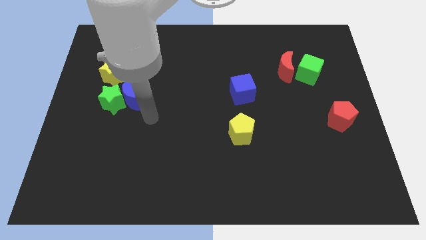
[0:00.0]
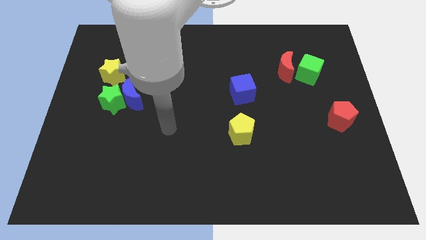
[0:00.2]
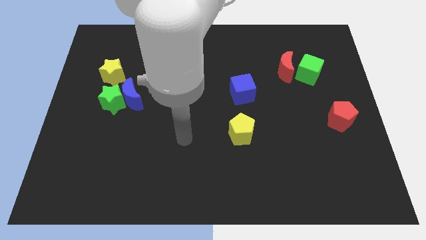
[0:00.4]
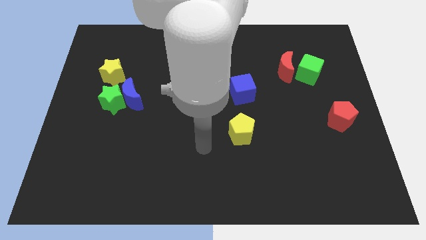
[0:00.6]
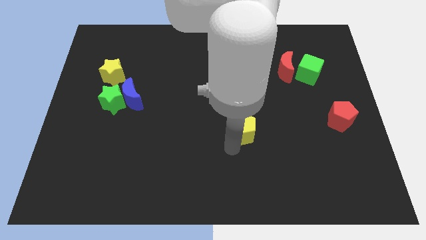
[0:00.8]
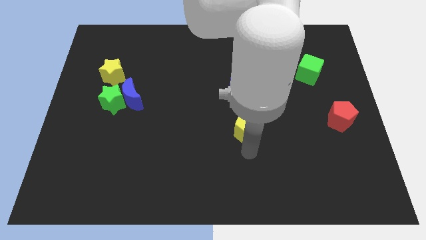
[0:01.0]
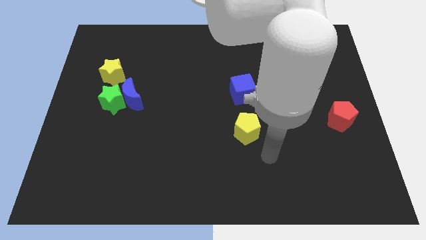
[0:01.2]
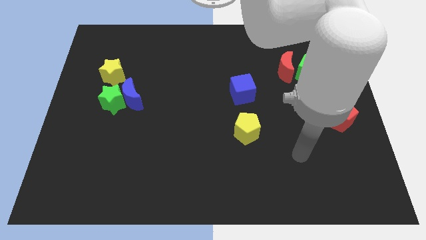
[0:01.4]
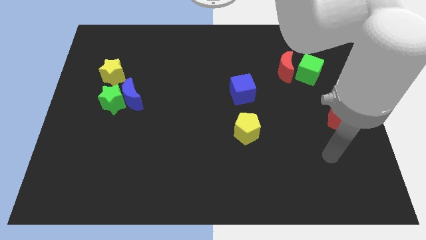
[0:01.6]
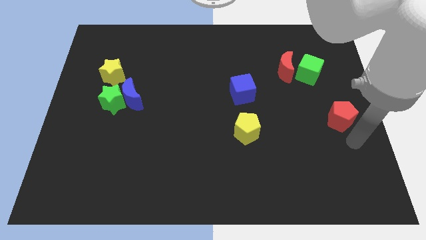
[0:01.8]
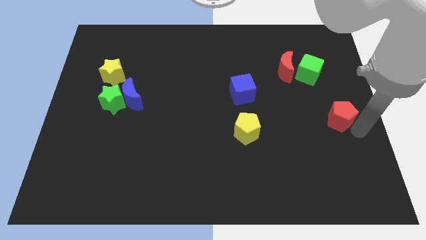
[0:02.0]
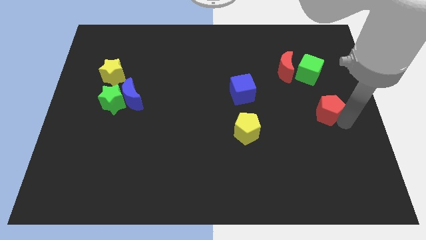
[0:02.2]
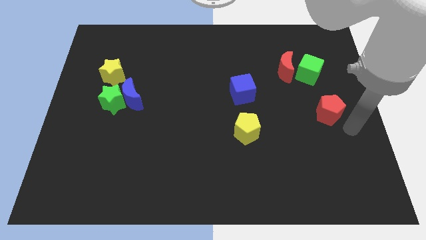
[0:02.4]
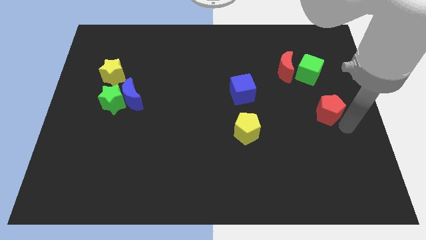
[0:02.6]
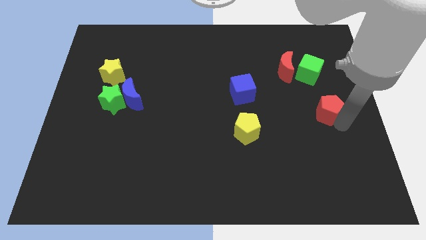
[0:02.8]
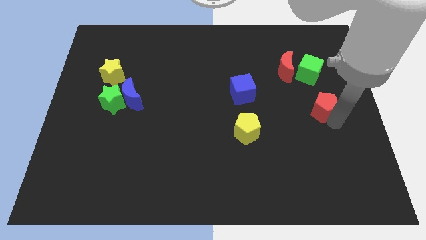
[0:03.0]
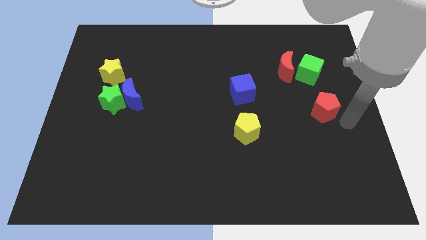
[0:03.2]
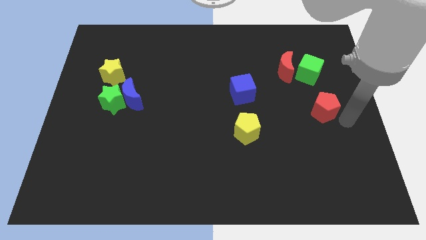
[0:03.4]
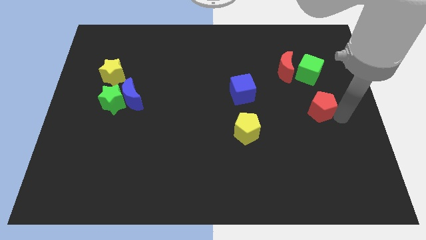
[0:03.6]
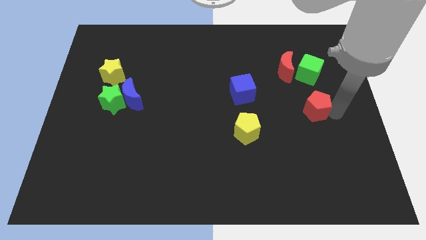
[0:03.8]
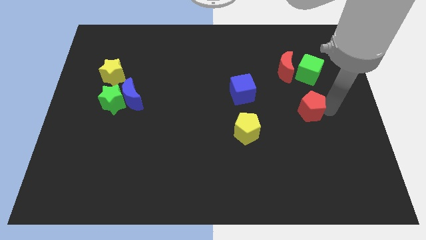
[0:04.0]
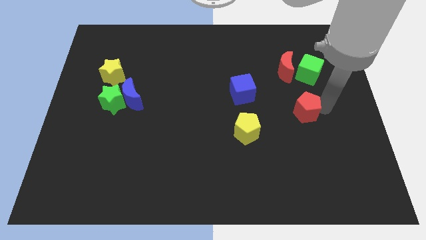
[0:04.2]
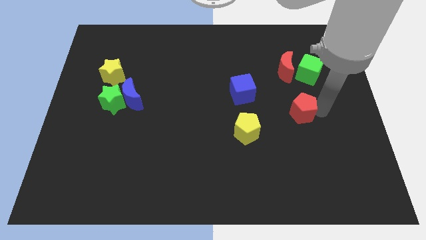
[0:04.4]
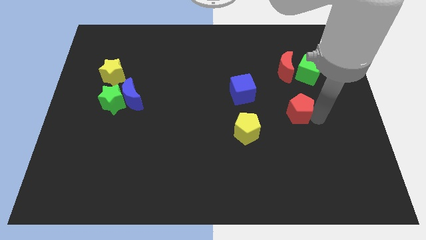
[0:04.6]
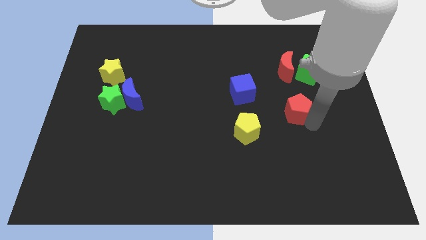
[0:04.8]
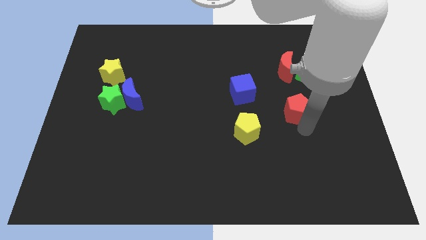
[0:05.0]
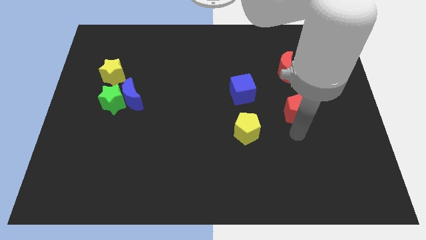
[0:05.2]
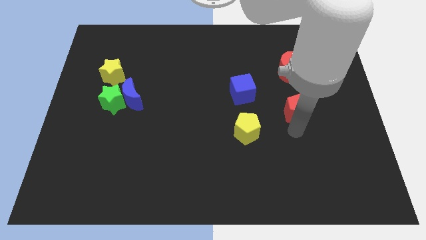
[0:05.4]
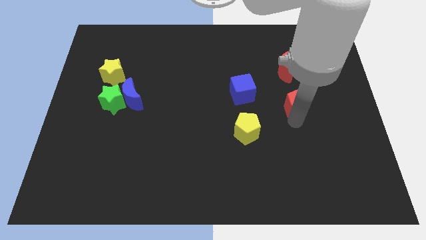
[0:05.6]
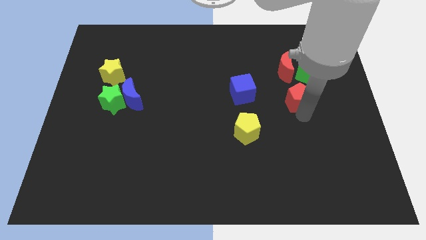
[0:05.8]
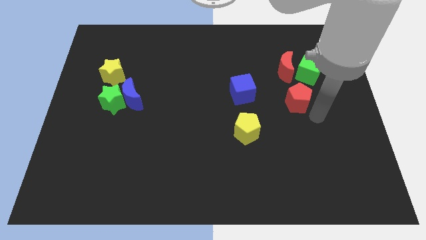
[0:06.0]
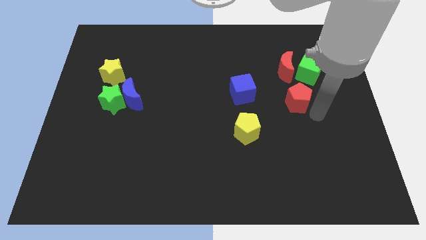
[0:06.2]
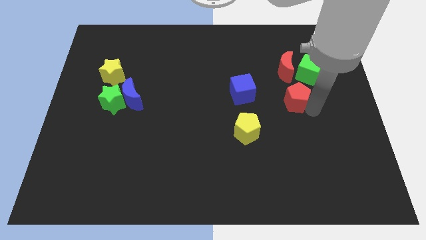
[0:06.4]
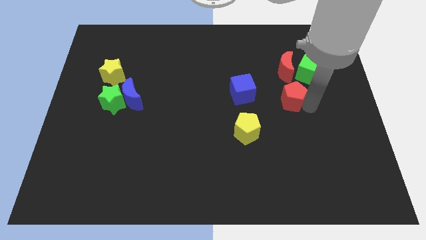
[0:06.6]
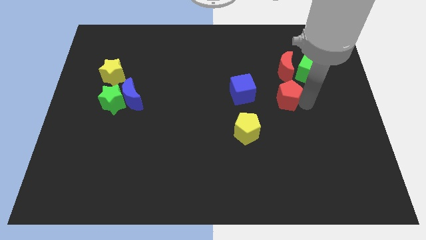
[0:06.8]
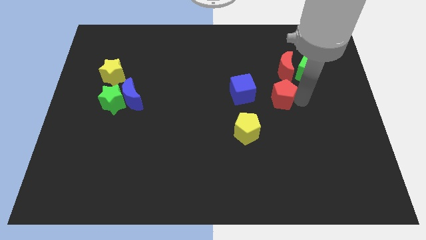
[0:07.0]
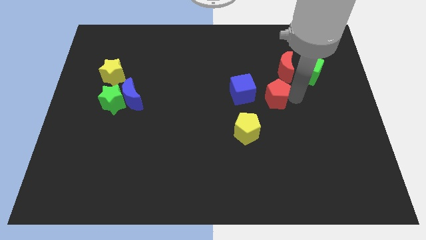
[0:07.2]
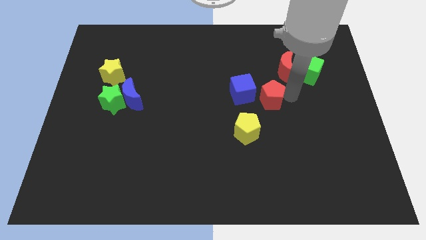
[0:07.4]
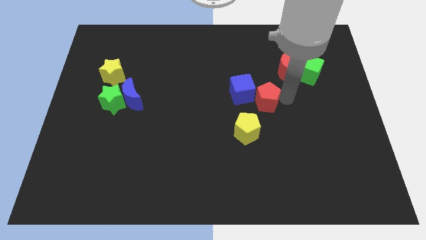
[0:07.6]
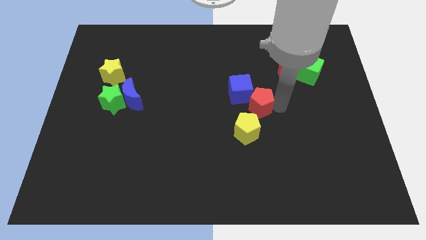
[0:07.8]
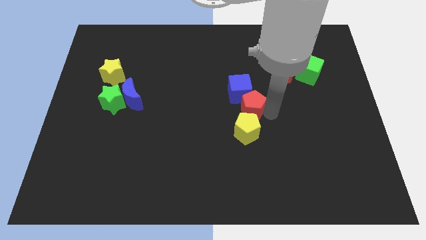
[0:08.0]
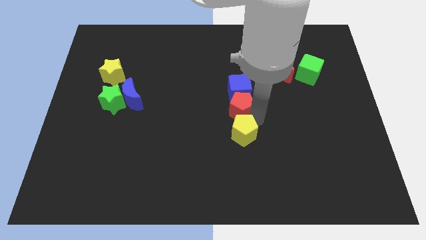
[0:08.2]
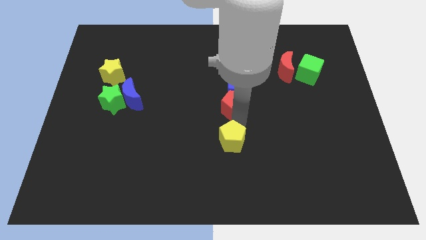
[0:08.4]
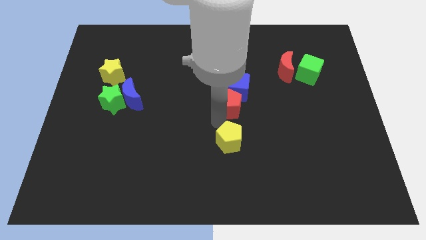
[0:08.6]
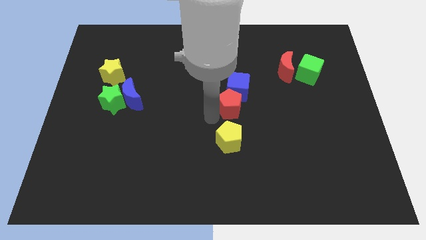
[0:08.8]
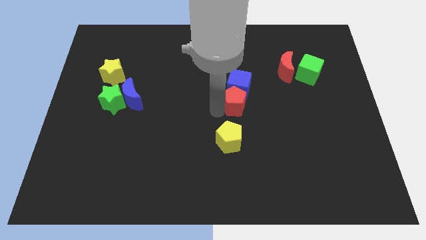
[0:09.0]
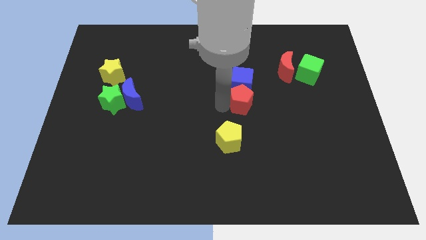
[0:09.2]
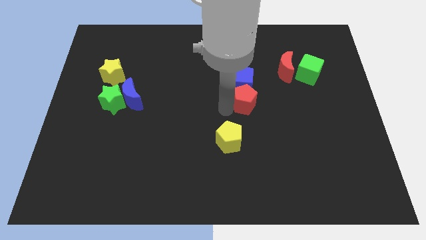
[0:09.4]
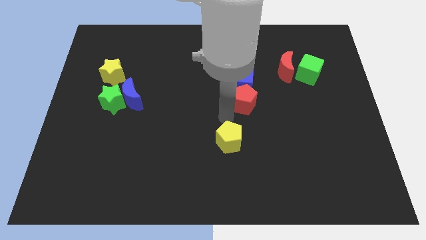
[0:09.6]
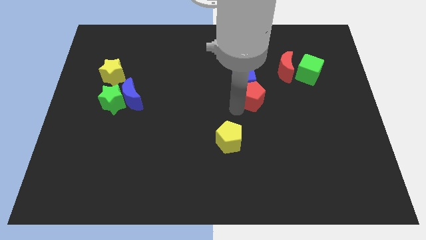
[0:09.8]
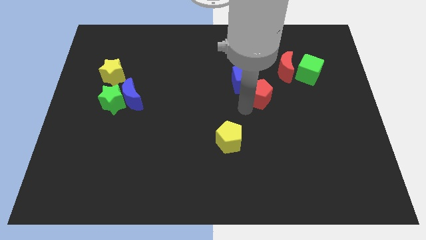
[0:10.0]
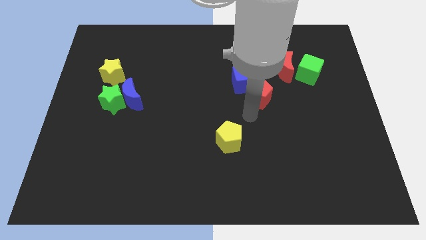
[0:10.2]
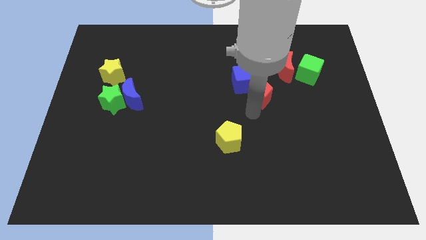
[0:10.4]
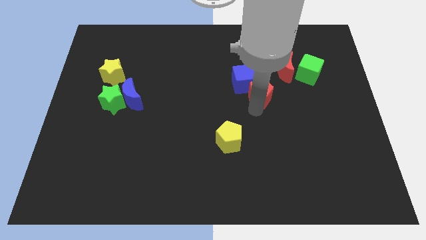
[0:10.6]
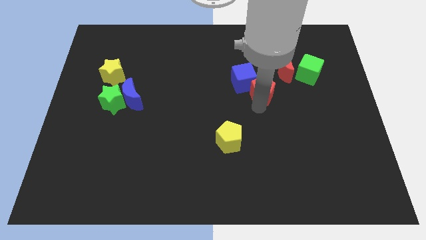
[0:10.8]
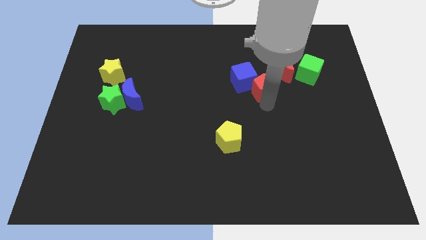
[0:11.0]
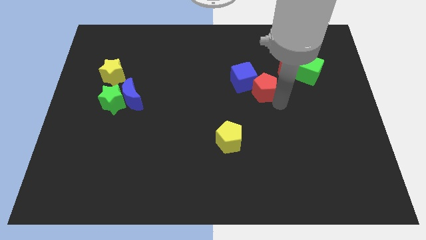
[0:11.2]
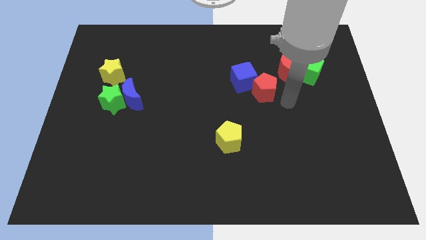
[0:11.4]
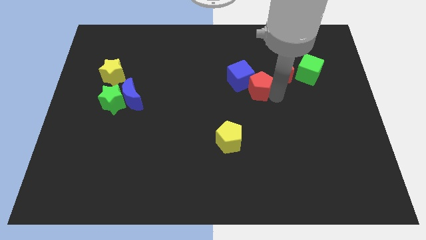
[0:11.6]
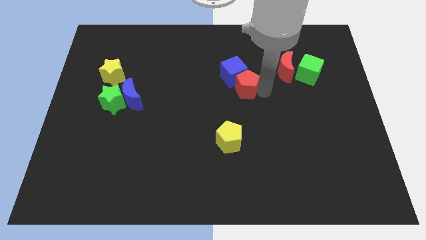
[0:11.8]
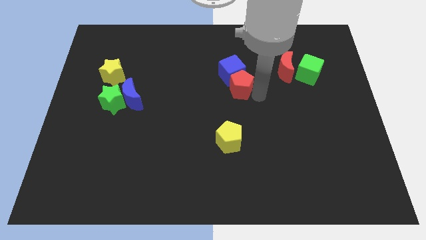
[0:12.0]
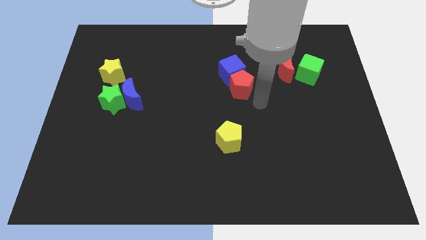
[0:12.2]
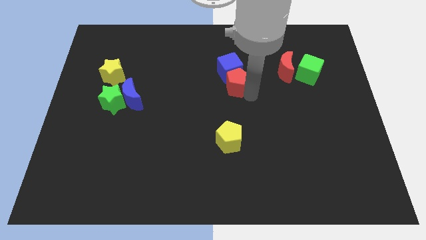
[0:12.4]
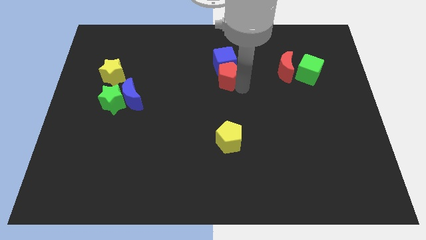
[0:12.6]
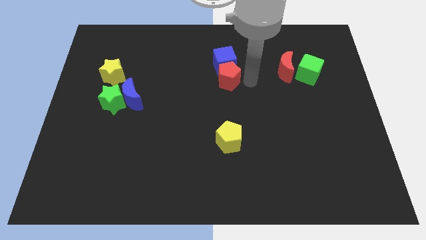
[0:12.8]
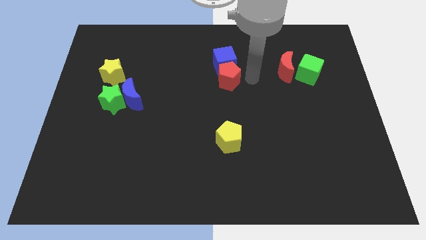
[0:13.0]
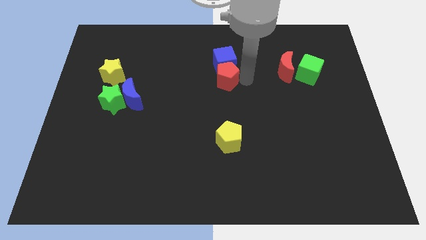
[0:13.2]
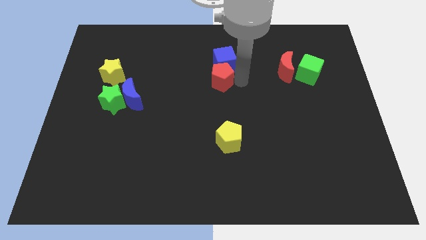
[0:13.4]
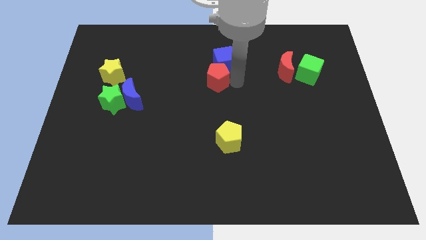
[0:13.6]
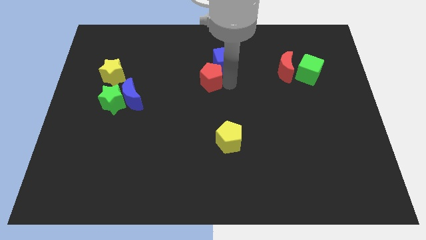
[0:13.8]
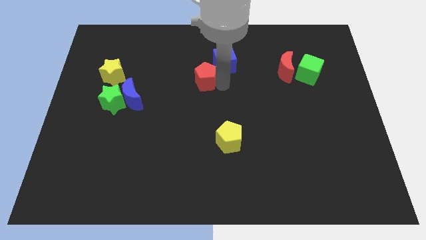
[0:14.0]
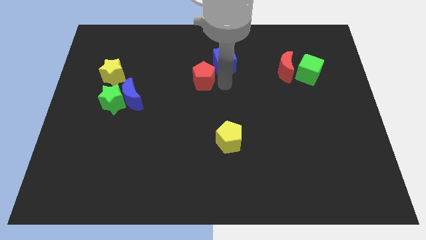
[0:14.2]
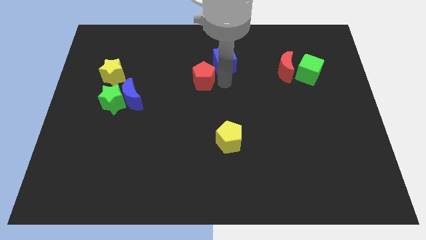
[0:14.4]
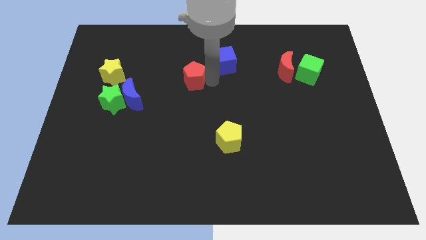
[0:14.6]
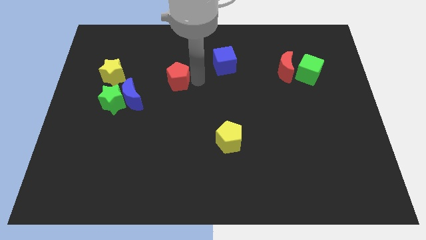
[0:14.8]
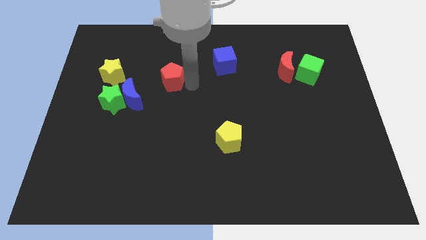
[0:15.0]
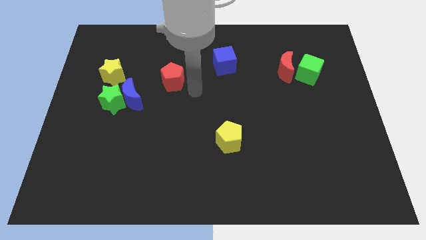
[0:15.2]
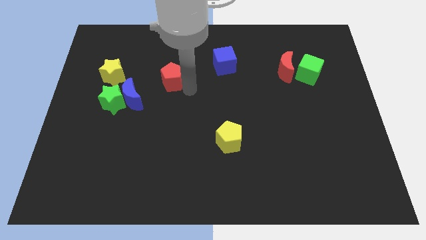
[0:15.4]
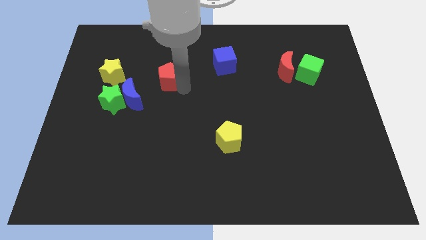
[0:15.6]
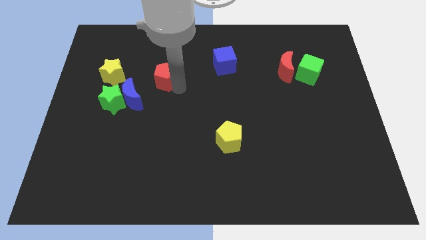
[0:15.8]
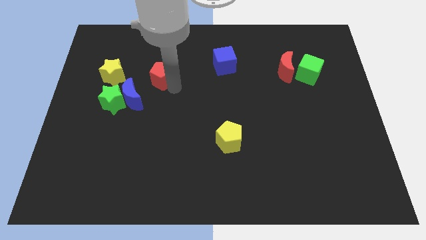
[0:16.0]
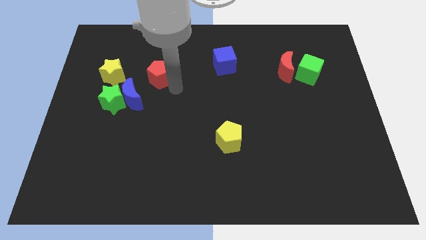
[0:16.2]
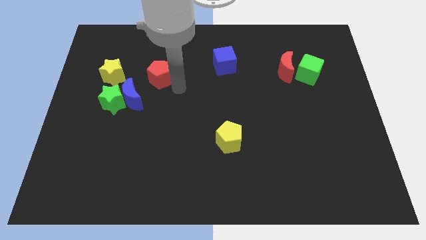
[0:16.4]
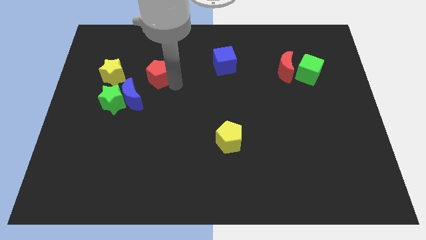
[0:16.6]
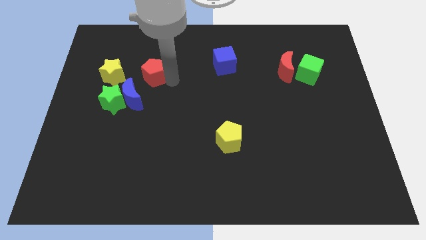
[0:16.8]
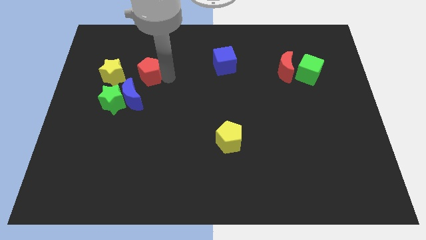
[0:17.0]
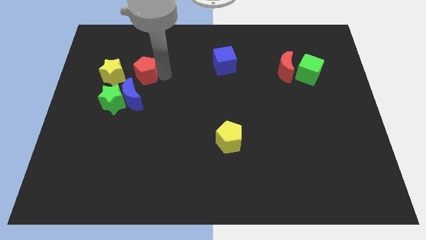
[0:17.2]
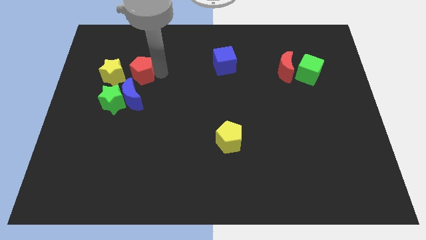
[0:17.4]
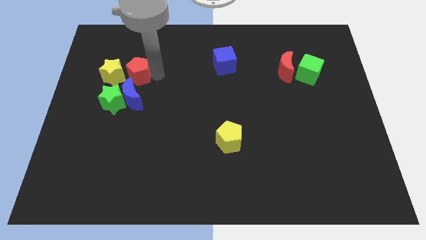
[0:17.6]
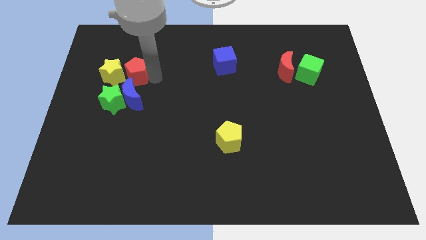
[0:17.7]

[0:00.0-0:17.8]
slide the red pentagon above the green star
